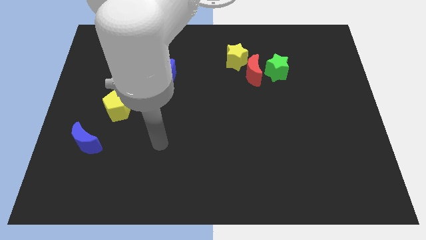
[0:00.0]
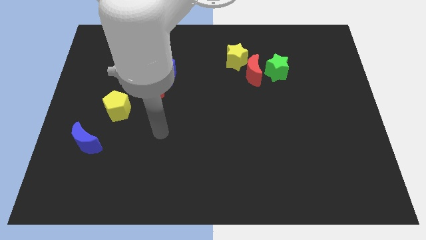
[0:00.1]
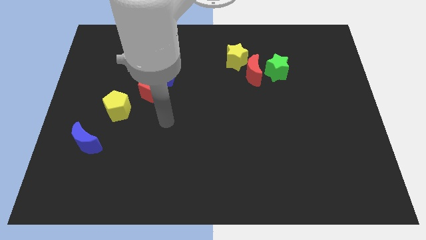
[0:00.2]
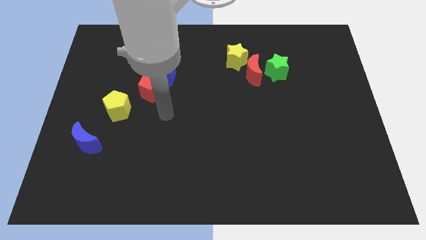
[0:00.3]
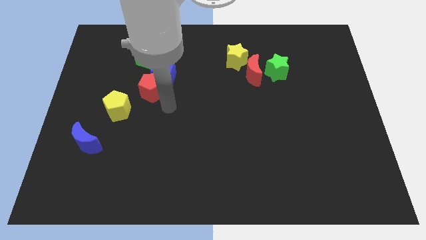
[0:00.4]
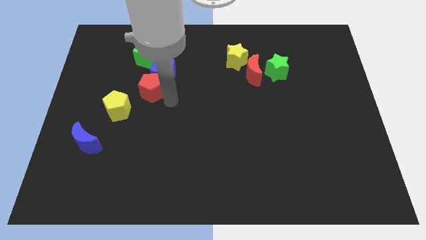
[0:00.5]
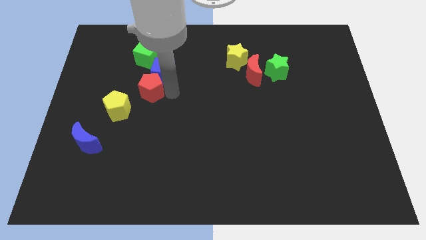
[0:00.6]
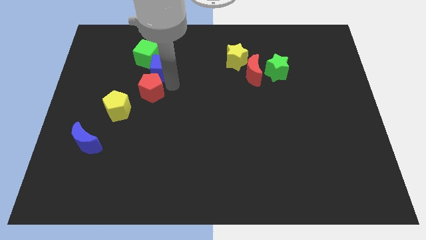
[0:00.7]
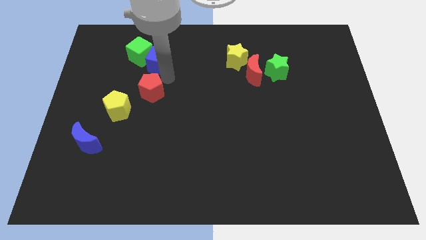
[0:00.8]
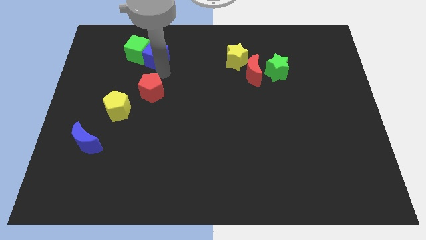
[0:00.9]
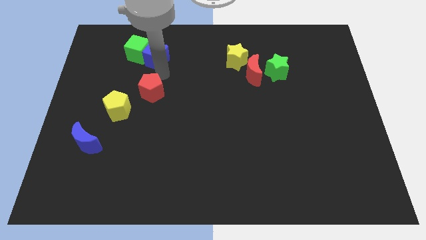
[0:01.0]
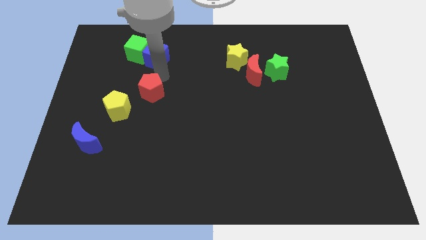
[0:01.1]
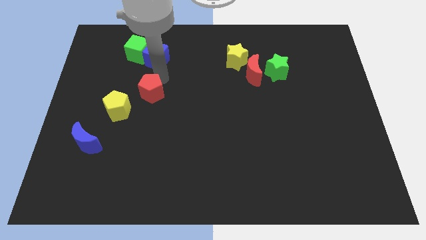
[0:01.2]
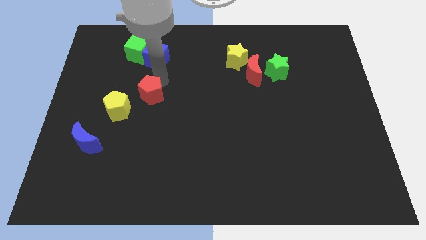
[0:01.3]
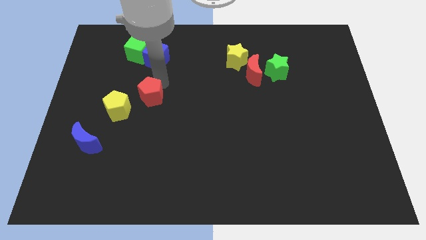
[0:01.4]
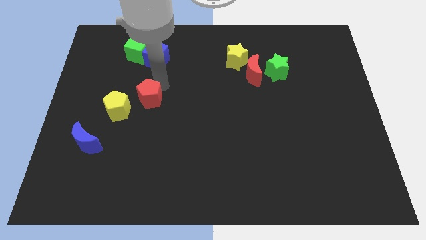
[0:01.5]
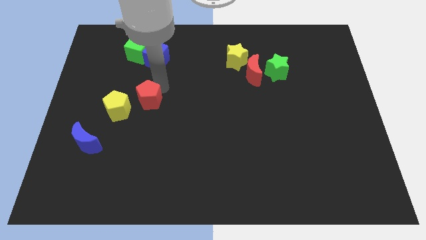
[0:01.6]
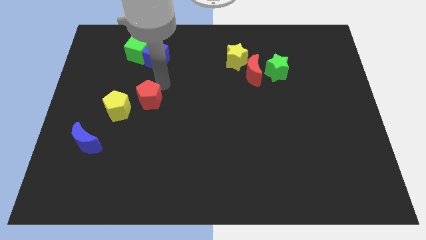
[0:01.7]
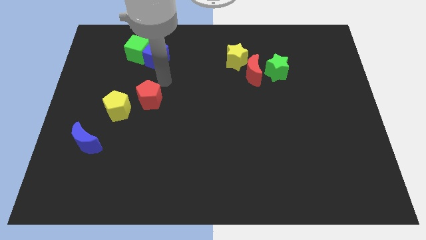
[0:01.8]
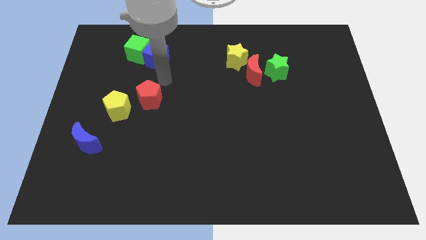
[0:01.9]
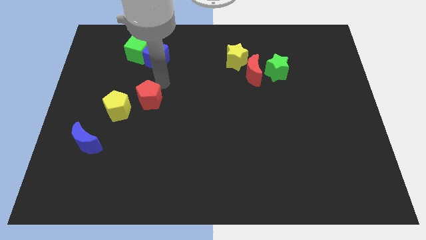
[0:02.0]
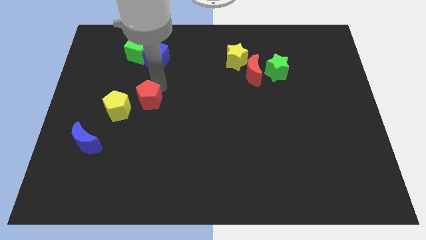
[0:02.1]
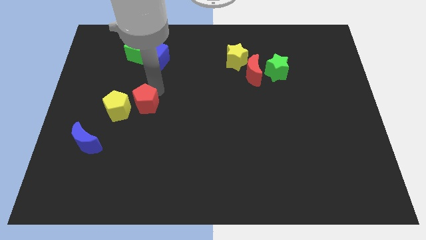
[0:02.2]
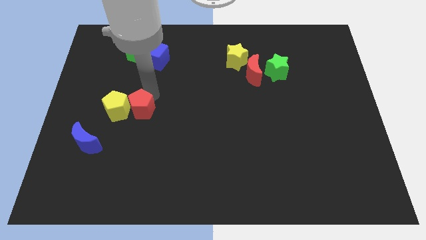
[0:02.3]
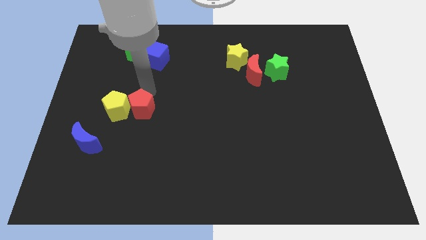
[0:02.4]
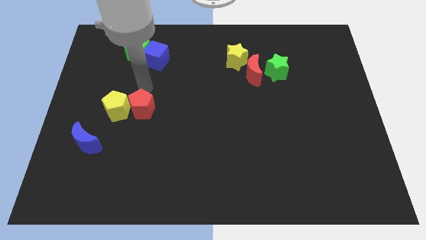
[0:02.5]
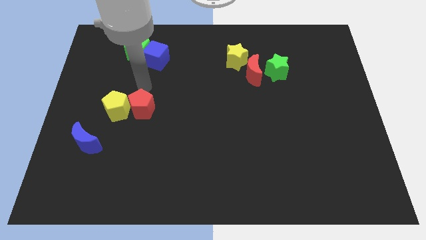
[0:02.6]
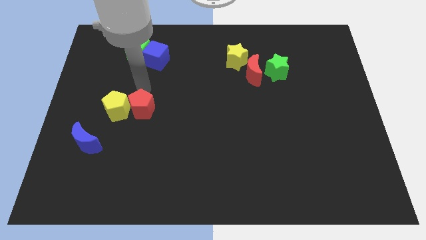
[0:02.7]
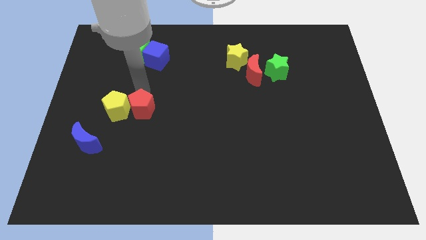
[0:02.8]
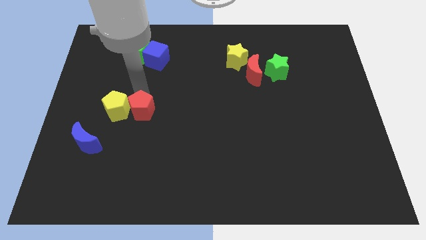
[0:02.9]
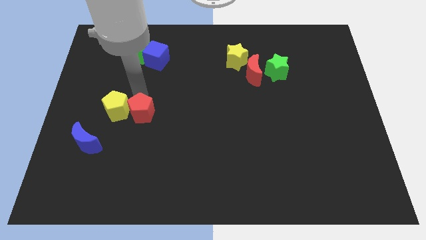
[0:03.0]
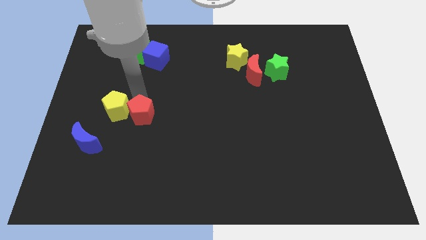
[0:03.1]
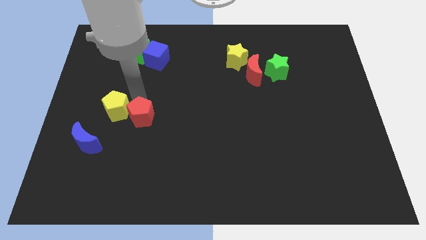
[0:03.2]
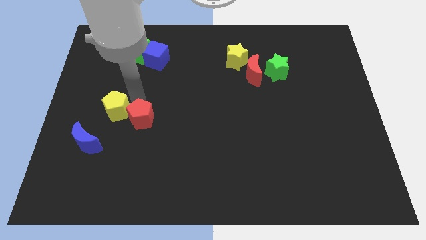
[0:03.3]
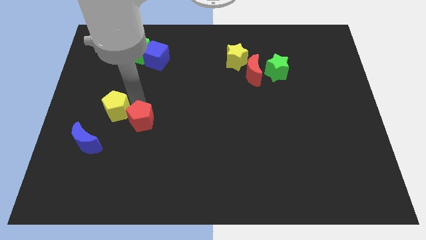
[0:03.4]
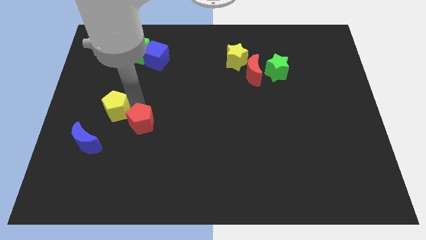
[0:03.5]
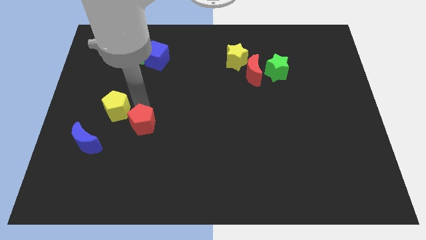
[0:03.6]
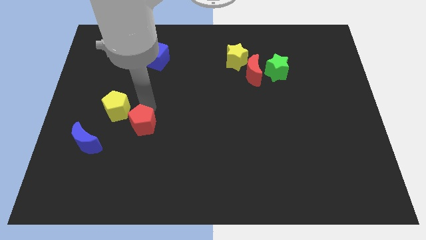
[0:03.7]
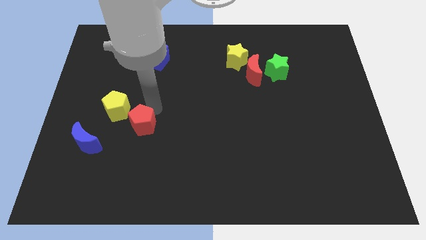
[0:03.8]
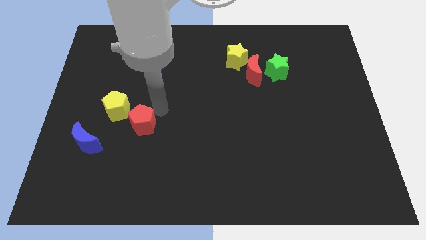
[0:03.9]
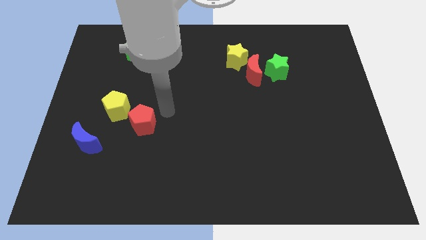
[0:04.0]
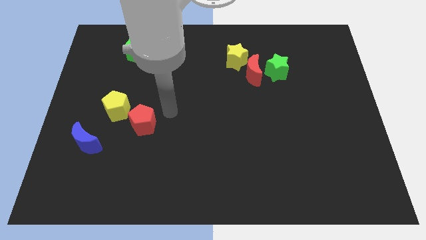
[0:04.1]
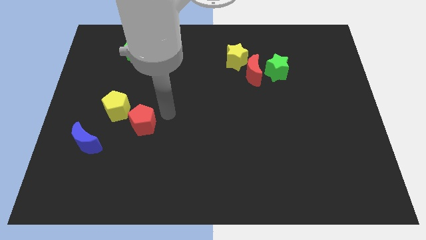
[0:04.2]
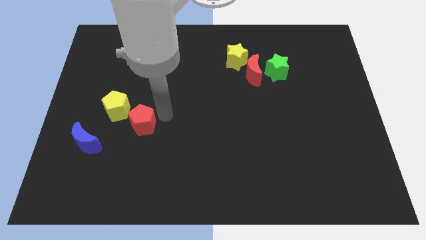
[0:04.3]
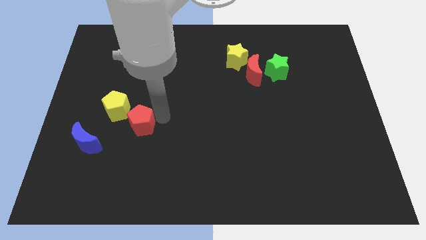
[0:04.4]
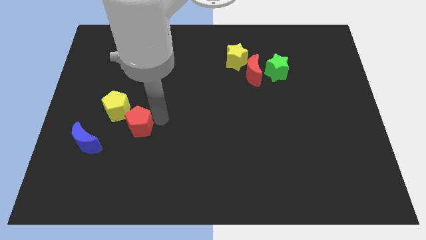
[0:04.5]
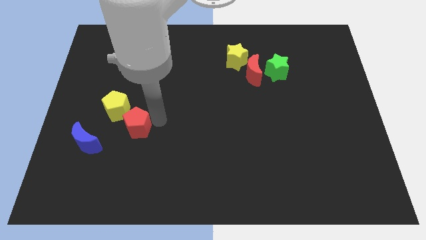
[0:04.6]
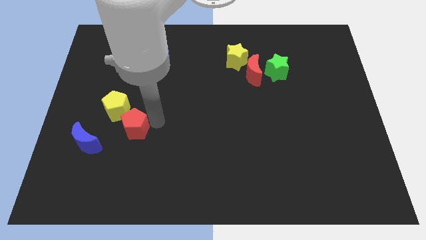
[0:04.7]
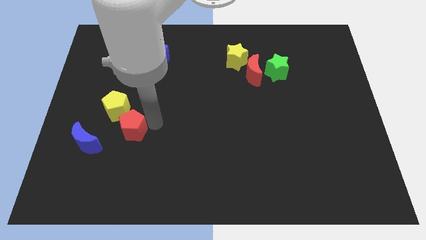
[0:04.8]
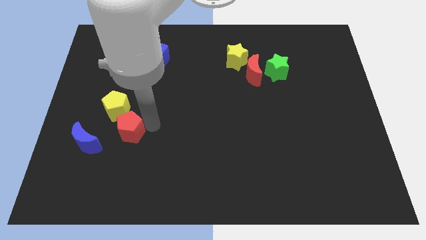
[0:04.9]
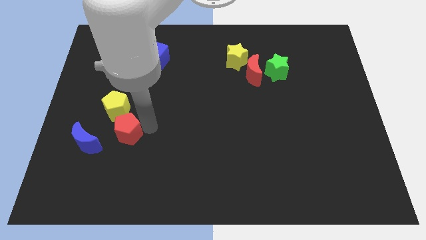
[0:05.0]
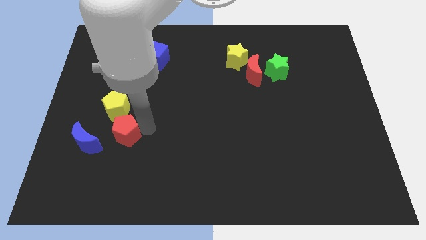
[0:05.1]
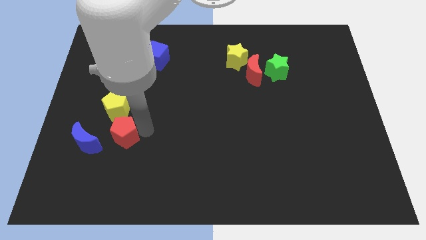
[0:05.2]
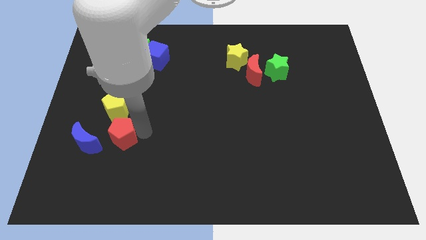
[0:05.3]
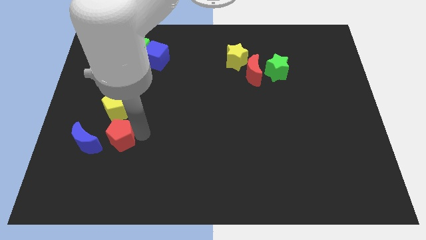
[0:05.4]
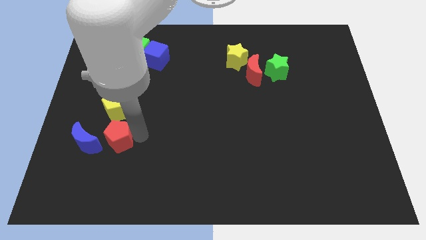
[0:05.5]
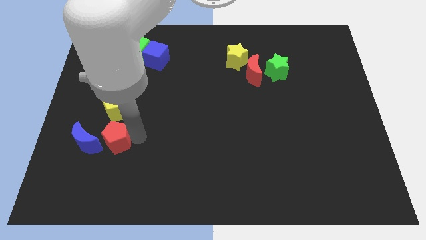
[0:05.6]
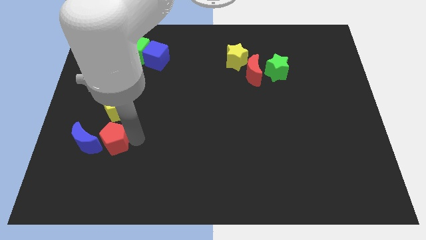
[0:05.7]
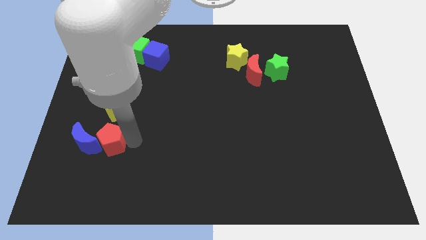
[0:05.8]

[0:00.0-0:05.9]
put the red pentagon towards the blue moon
